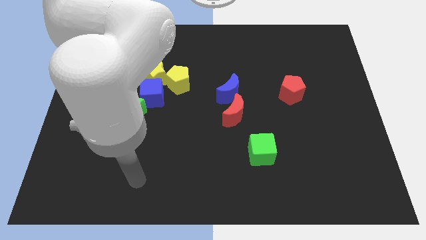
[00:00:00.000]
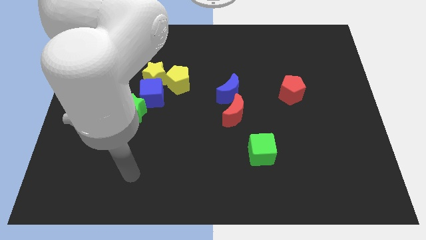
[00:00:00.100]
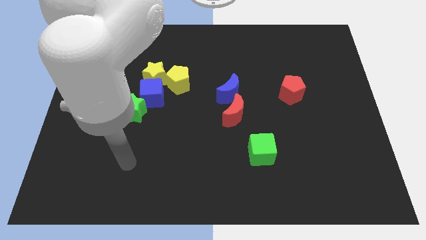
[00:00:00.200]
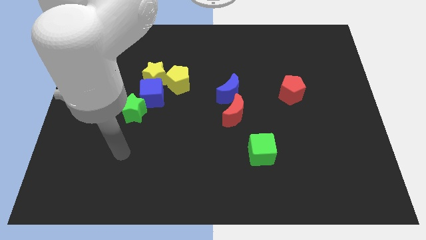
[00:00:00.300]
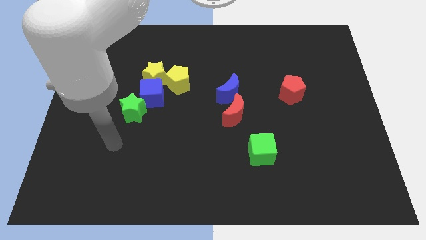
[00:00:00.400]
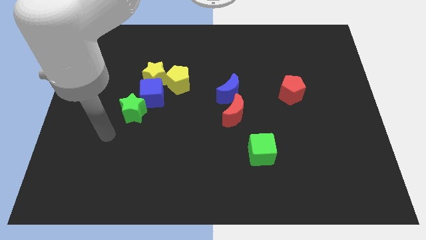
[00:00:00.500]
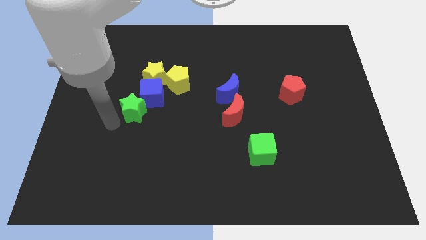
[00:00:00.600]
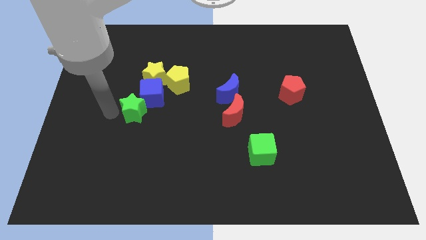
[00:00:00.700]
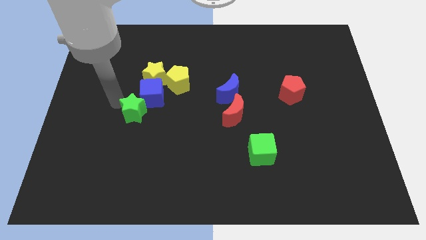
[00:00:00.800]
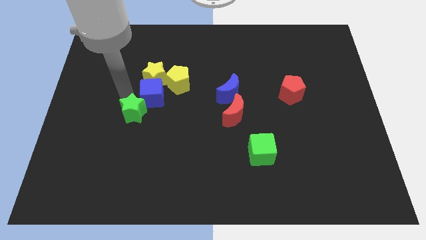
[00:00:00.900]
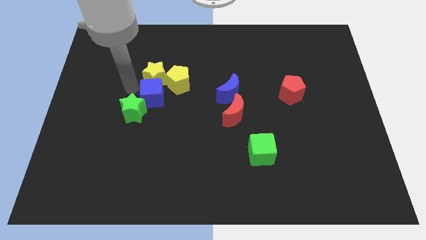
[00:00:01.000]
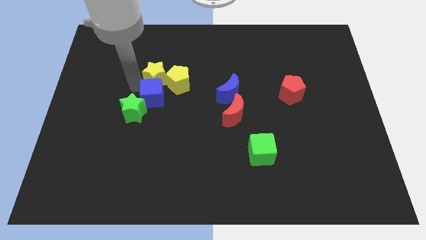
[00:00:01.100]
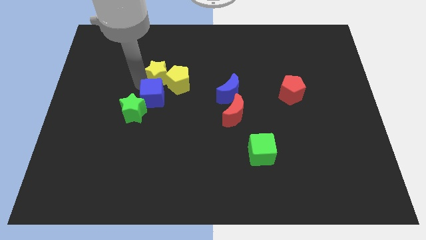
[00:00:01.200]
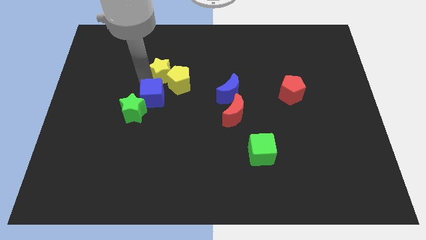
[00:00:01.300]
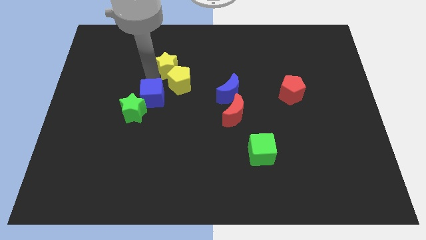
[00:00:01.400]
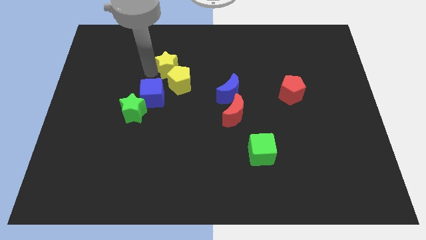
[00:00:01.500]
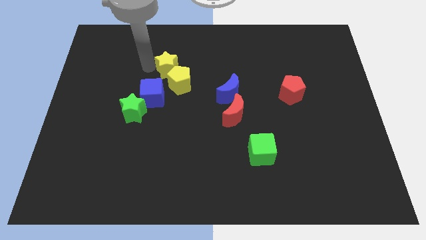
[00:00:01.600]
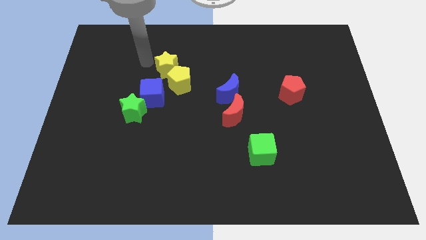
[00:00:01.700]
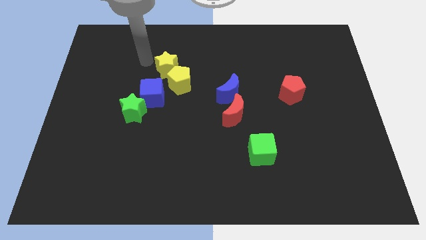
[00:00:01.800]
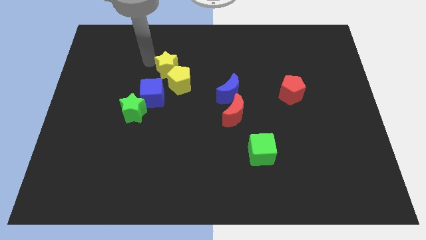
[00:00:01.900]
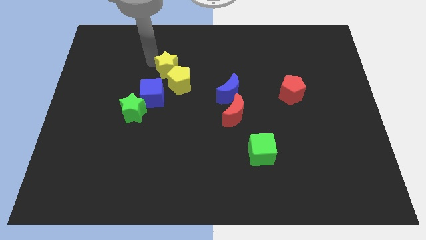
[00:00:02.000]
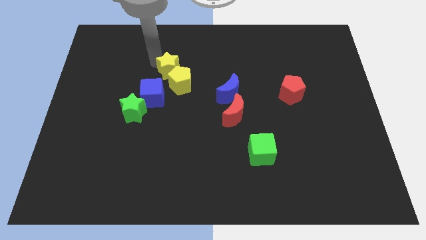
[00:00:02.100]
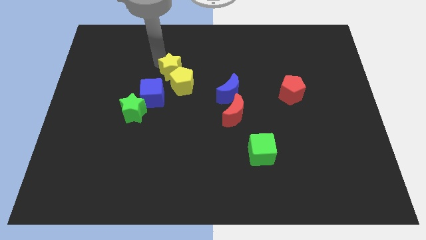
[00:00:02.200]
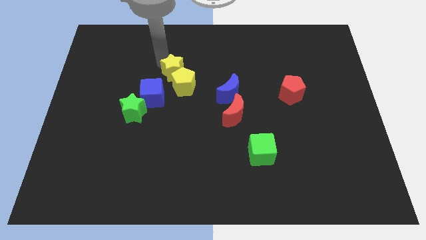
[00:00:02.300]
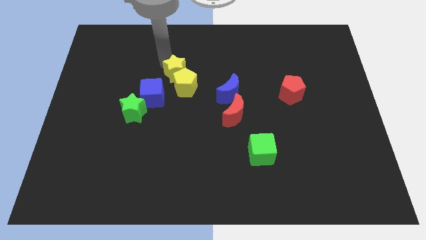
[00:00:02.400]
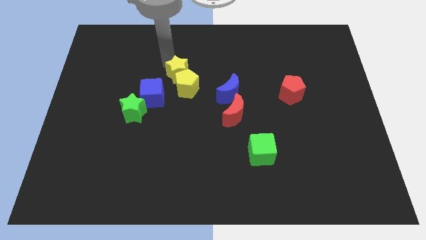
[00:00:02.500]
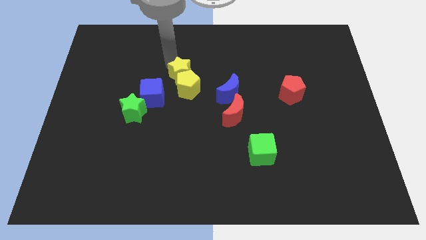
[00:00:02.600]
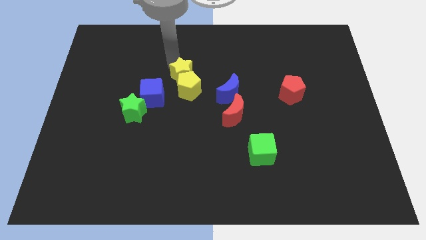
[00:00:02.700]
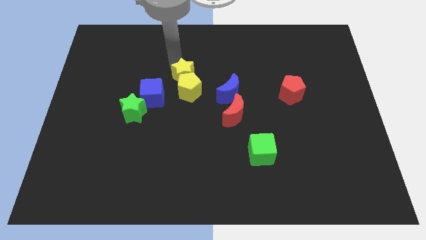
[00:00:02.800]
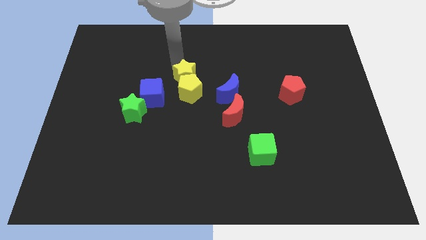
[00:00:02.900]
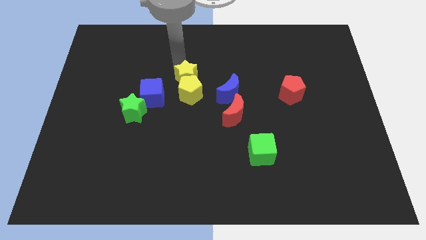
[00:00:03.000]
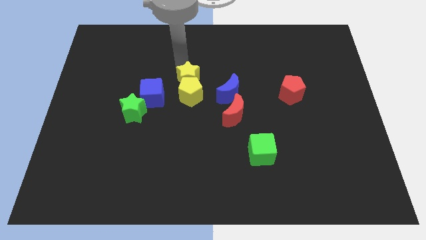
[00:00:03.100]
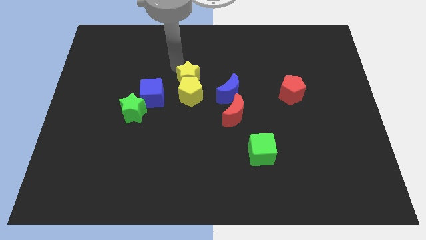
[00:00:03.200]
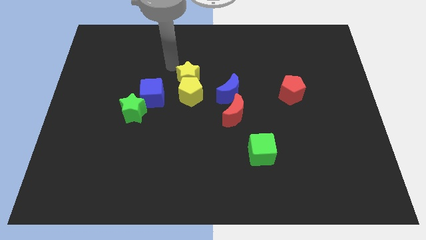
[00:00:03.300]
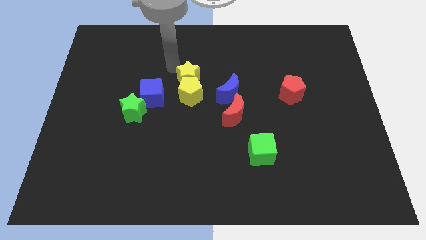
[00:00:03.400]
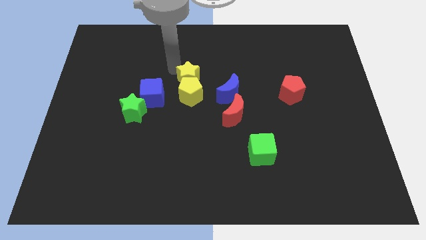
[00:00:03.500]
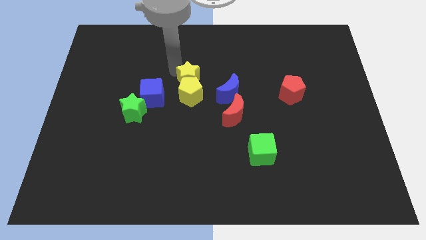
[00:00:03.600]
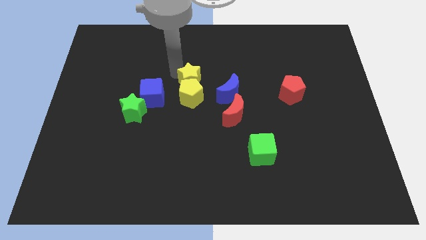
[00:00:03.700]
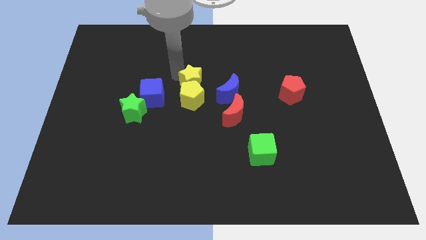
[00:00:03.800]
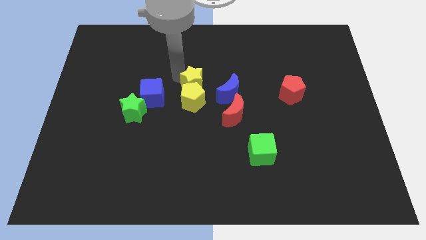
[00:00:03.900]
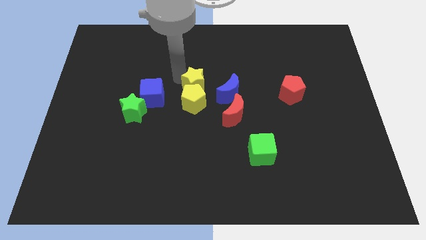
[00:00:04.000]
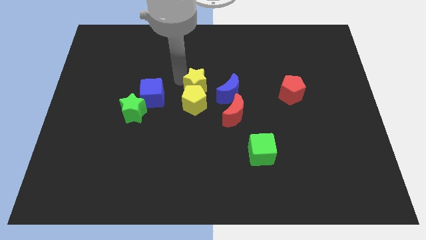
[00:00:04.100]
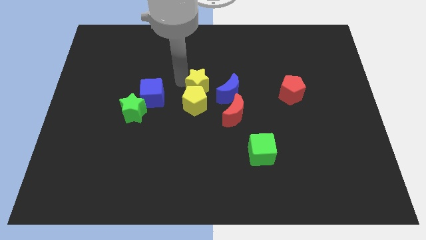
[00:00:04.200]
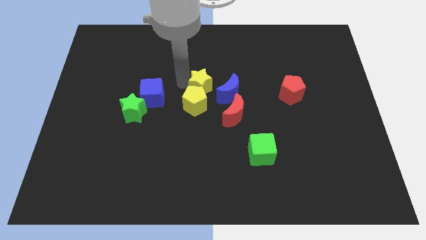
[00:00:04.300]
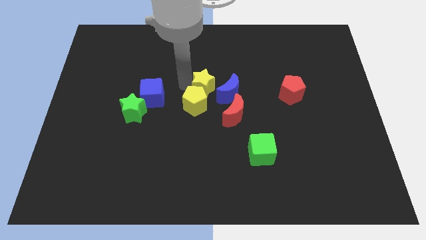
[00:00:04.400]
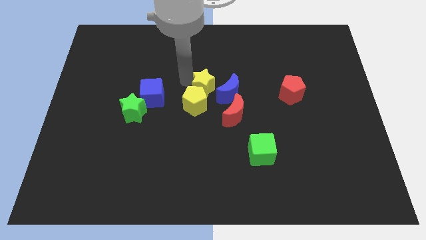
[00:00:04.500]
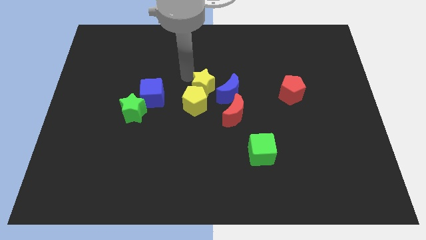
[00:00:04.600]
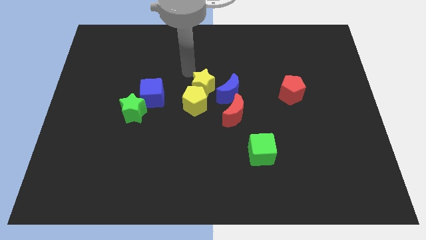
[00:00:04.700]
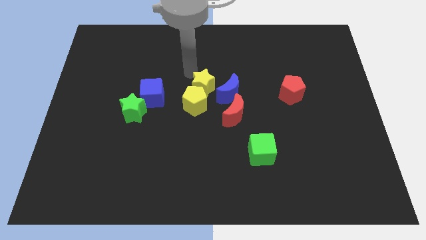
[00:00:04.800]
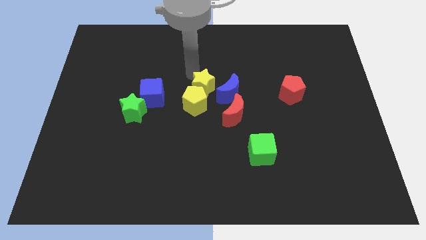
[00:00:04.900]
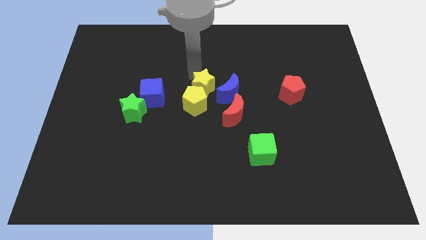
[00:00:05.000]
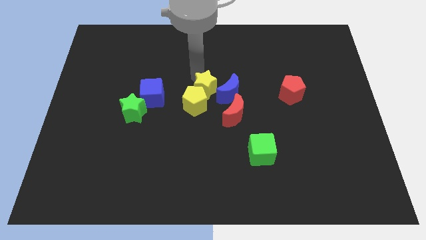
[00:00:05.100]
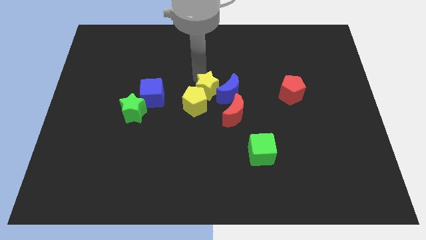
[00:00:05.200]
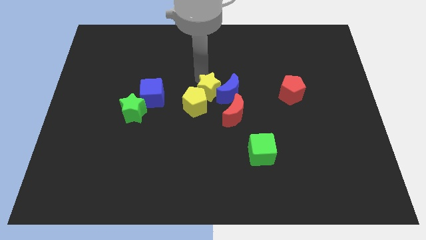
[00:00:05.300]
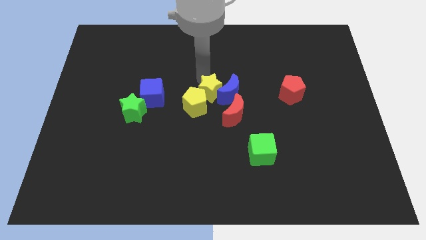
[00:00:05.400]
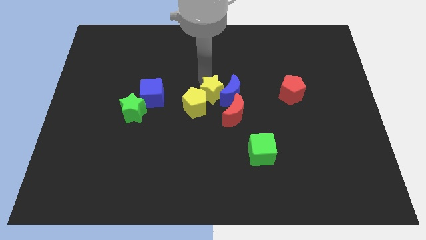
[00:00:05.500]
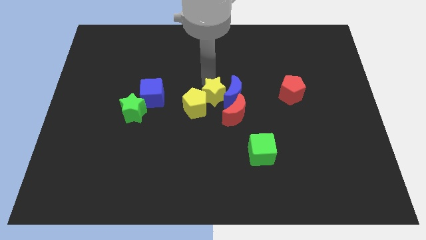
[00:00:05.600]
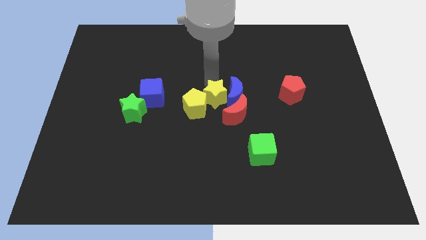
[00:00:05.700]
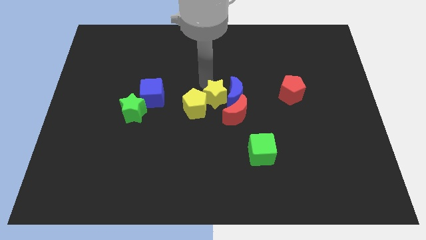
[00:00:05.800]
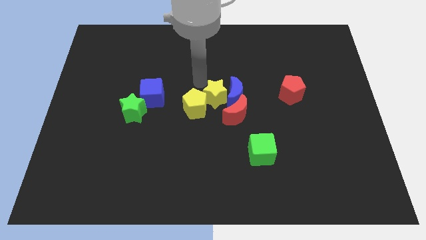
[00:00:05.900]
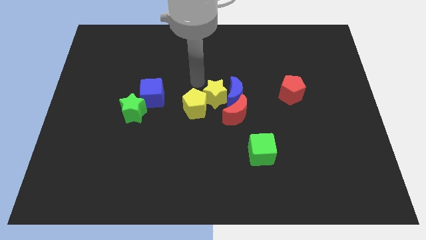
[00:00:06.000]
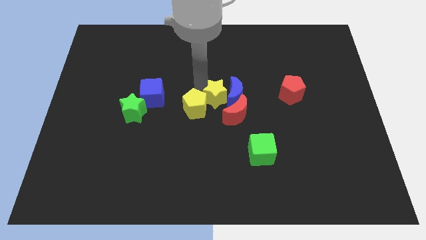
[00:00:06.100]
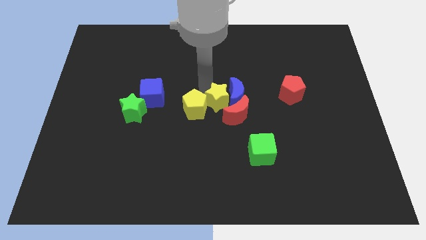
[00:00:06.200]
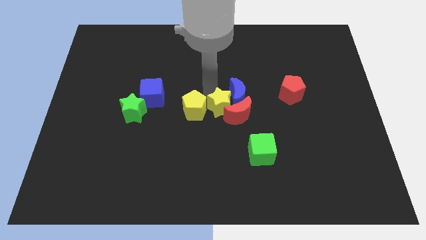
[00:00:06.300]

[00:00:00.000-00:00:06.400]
slide the yellow star close to the red moon
